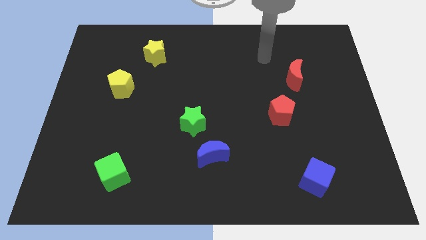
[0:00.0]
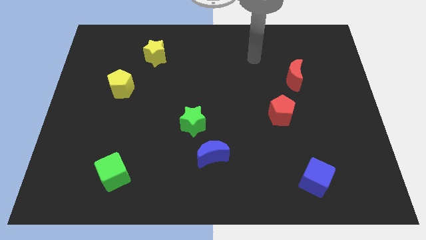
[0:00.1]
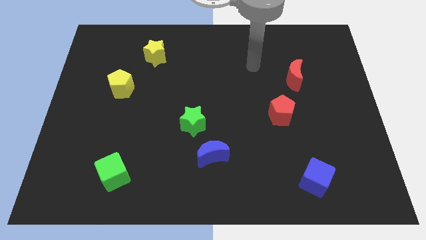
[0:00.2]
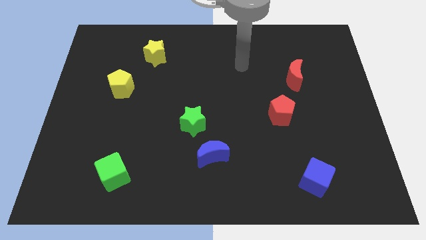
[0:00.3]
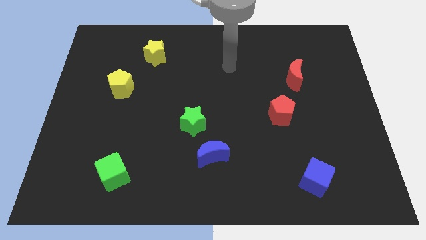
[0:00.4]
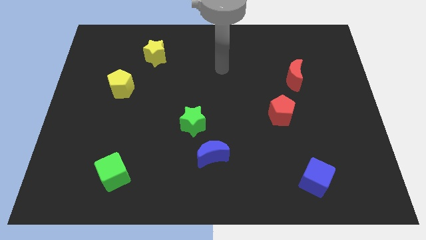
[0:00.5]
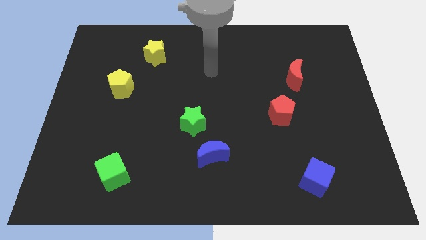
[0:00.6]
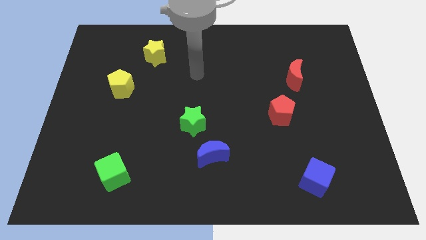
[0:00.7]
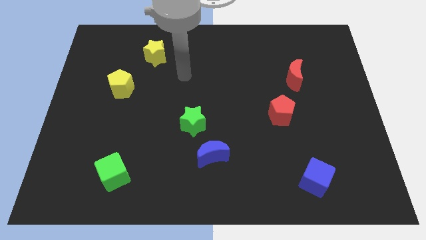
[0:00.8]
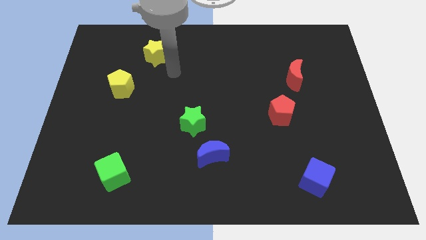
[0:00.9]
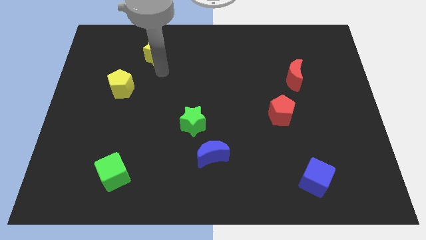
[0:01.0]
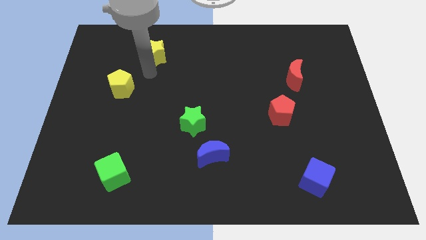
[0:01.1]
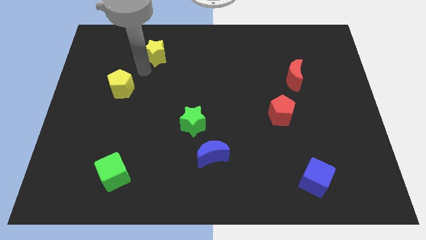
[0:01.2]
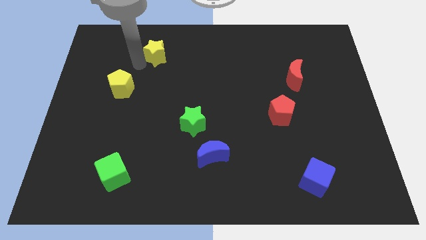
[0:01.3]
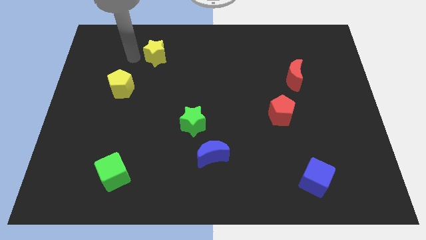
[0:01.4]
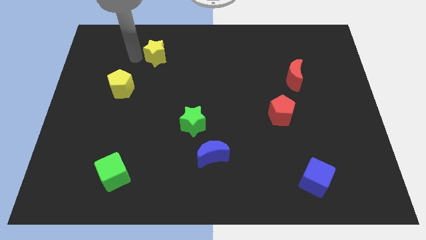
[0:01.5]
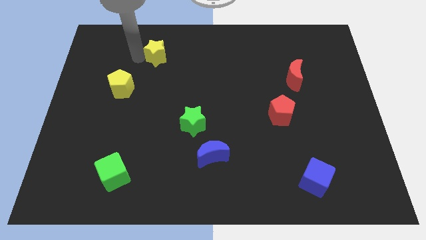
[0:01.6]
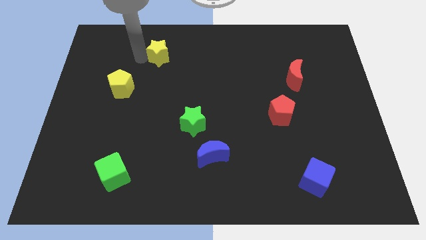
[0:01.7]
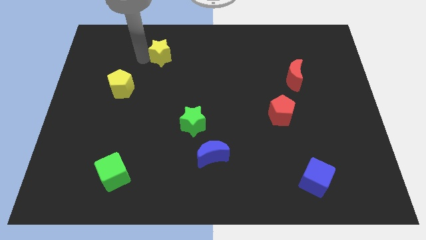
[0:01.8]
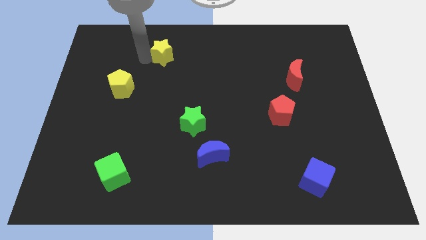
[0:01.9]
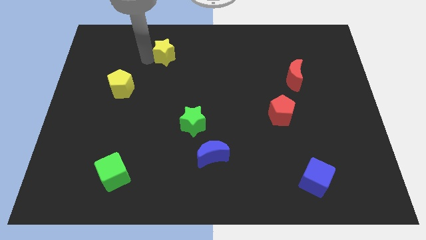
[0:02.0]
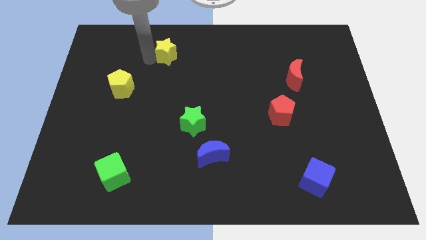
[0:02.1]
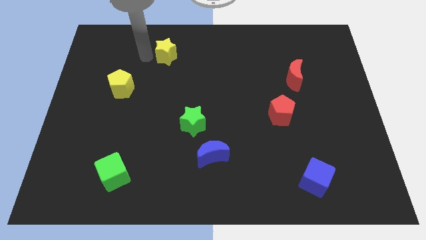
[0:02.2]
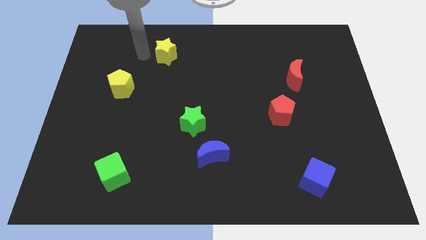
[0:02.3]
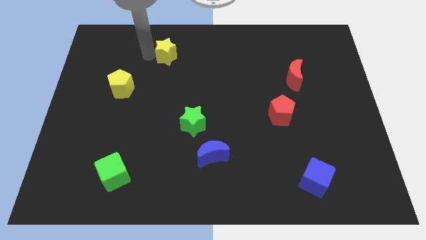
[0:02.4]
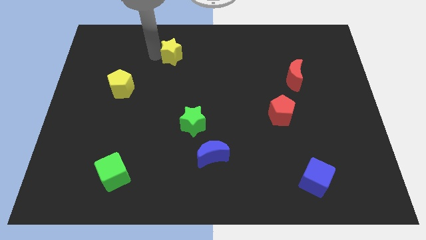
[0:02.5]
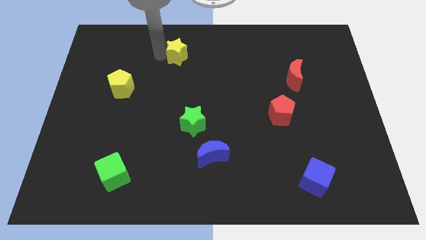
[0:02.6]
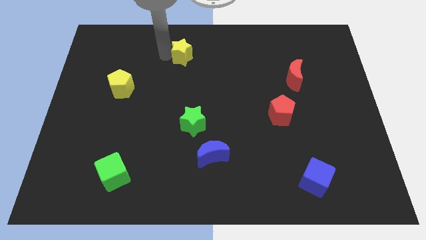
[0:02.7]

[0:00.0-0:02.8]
slightly push the yellow star right

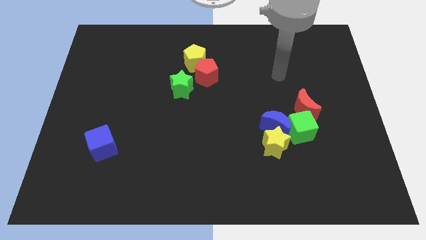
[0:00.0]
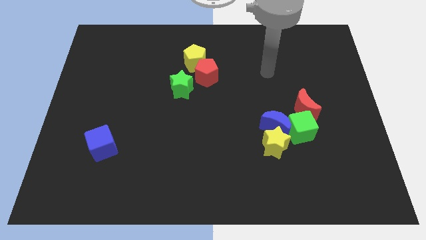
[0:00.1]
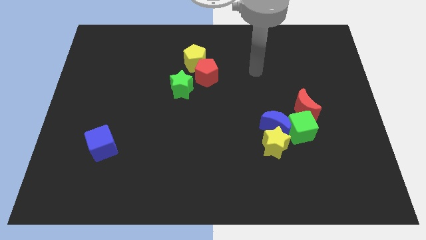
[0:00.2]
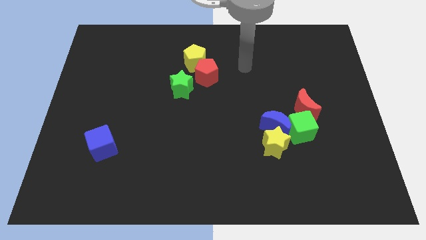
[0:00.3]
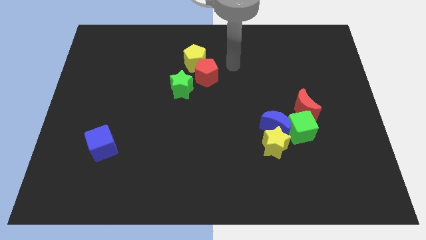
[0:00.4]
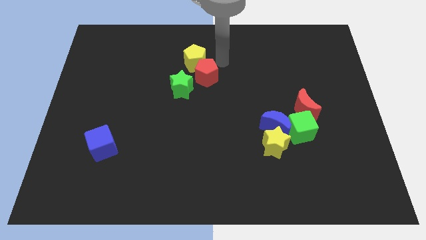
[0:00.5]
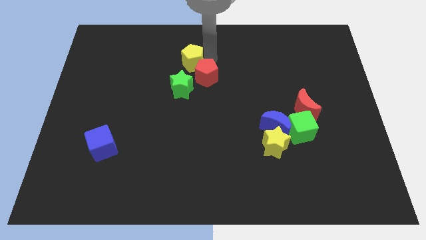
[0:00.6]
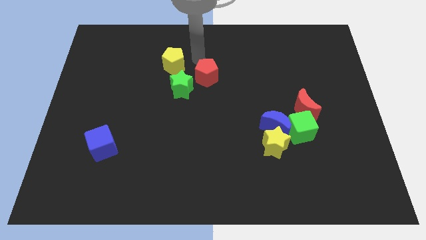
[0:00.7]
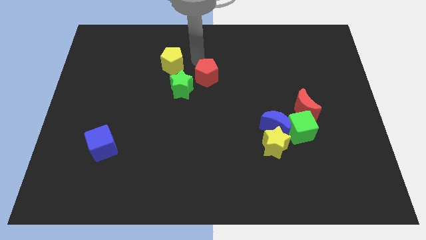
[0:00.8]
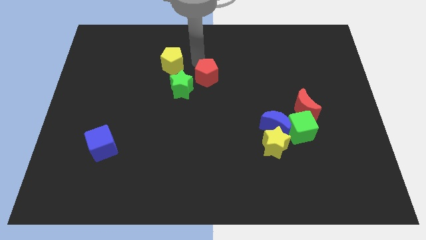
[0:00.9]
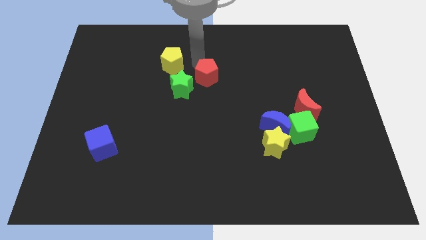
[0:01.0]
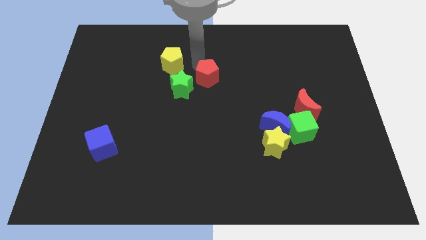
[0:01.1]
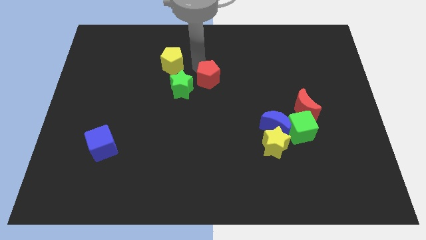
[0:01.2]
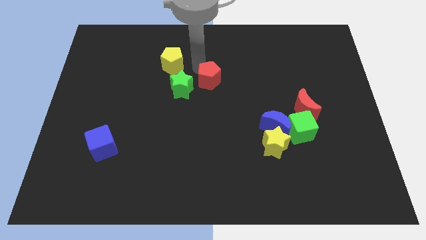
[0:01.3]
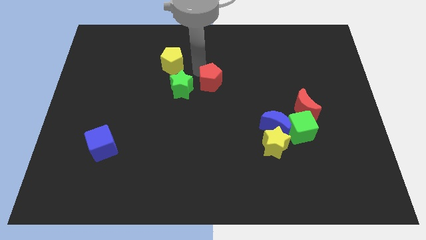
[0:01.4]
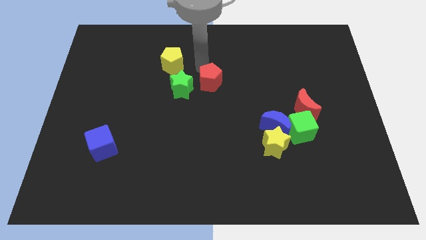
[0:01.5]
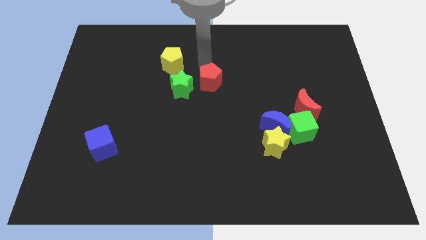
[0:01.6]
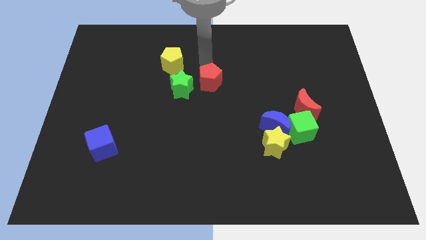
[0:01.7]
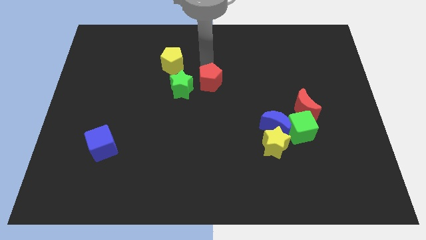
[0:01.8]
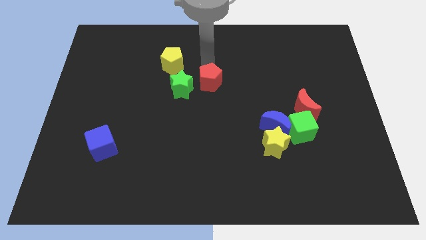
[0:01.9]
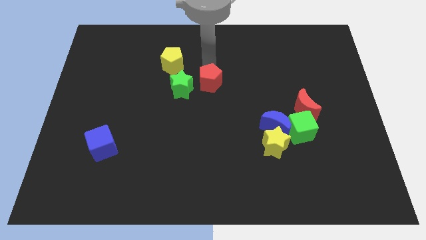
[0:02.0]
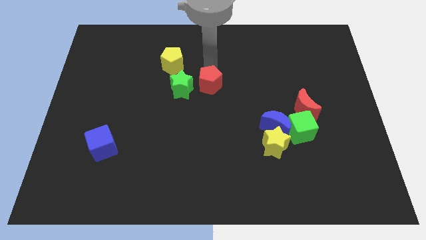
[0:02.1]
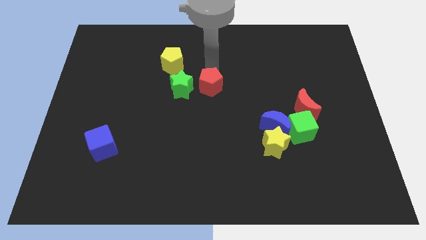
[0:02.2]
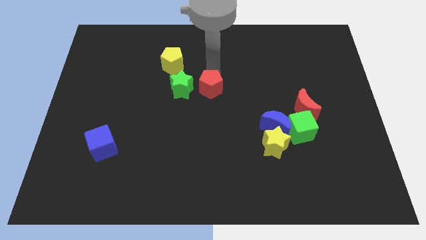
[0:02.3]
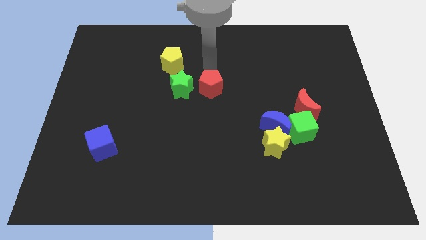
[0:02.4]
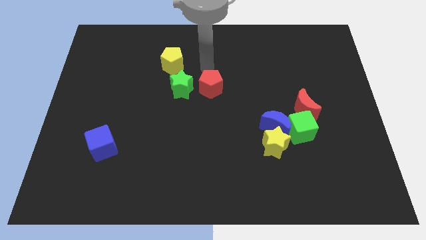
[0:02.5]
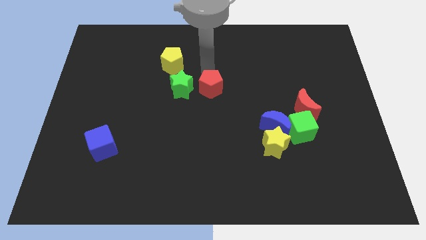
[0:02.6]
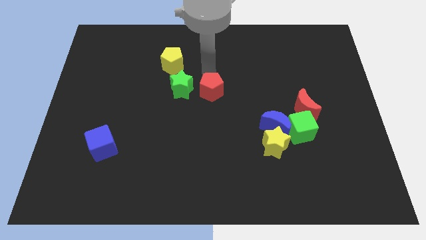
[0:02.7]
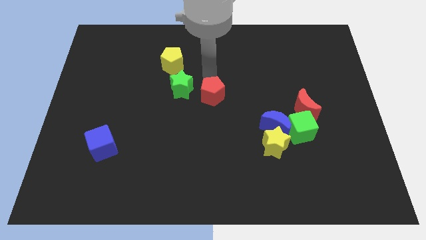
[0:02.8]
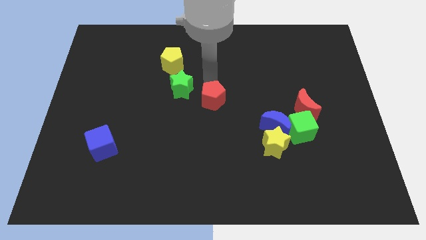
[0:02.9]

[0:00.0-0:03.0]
slightly move the red pentagon downwards

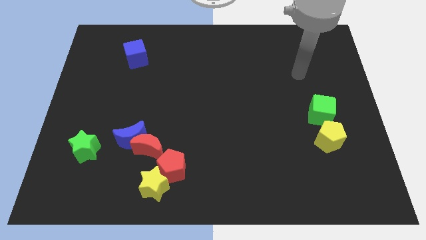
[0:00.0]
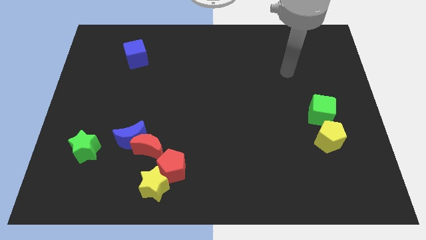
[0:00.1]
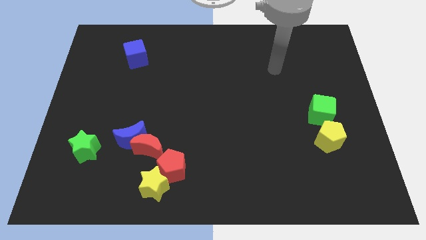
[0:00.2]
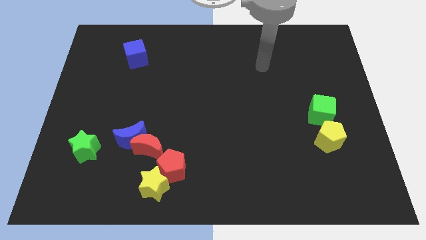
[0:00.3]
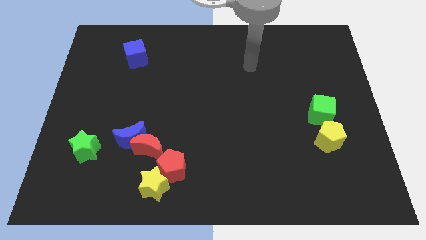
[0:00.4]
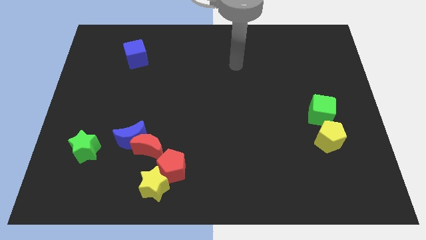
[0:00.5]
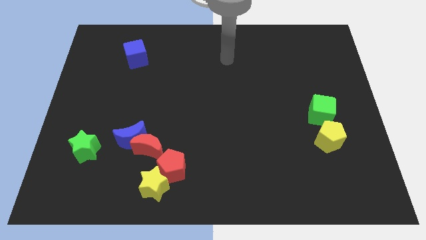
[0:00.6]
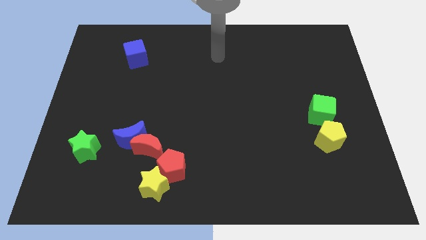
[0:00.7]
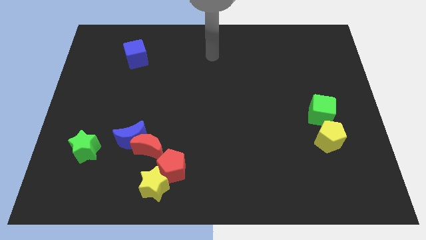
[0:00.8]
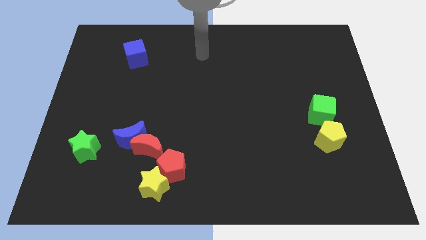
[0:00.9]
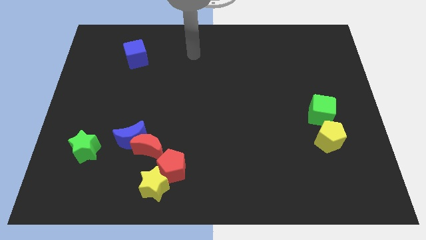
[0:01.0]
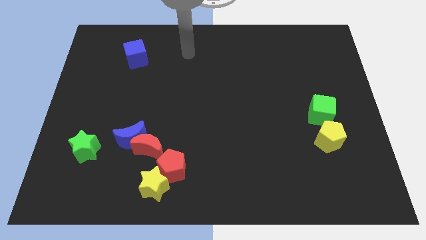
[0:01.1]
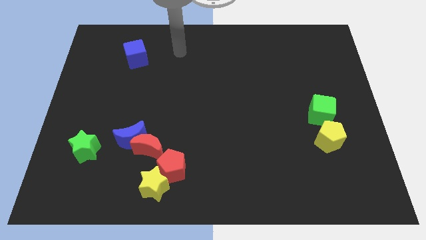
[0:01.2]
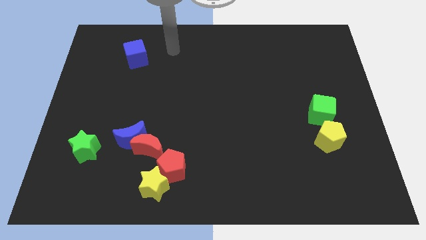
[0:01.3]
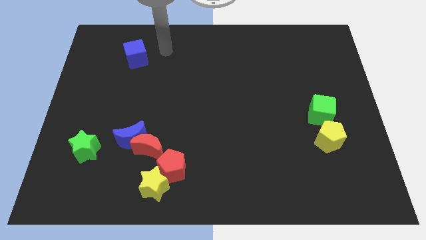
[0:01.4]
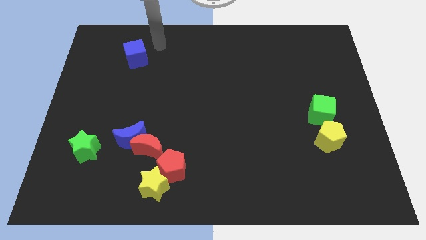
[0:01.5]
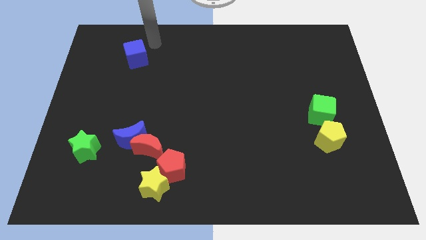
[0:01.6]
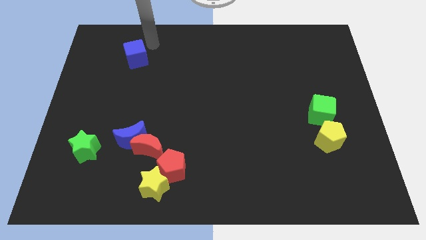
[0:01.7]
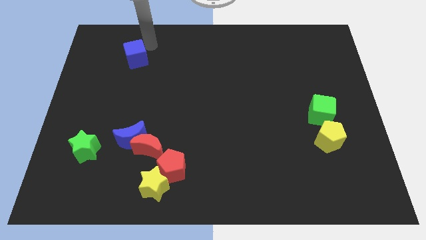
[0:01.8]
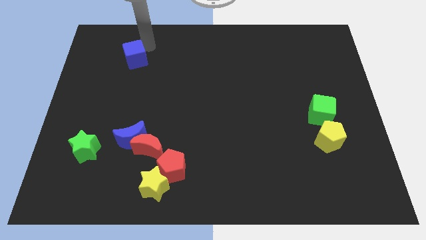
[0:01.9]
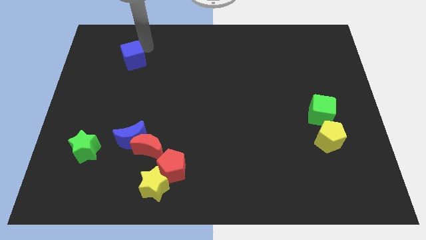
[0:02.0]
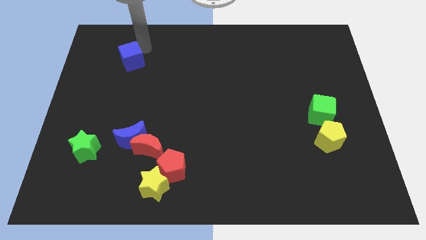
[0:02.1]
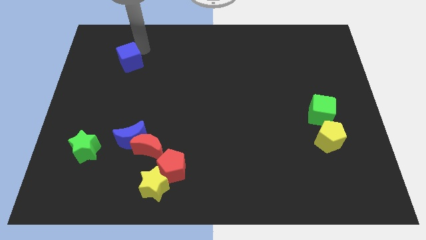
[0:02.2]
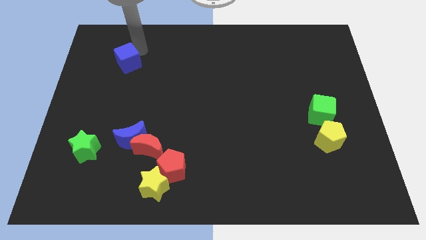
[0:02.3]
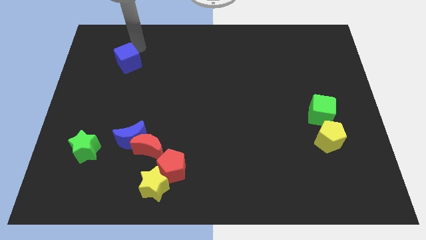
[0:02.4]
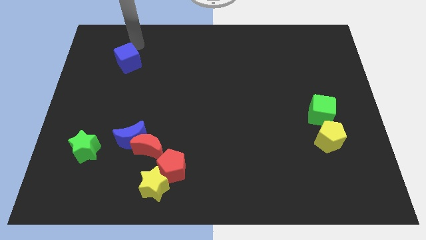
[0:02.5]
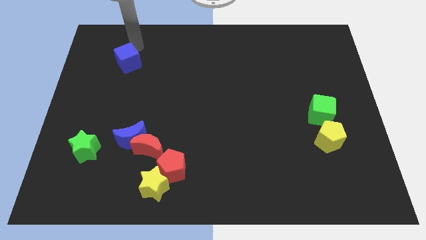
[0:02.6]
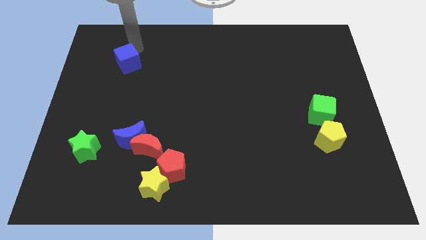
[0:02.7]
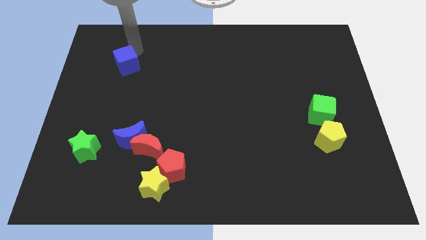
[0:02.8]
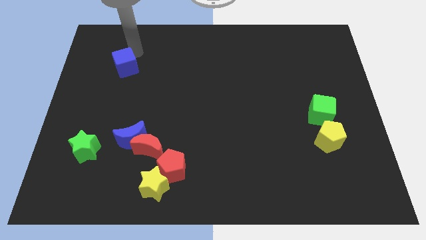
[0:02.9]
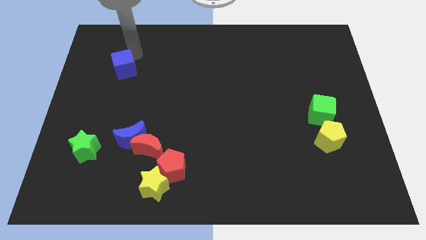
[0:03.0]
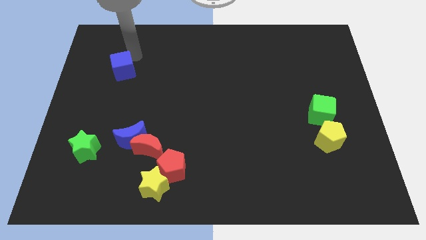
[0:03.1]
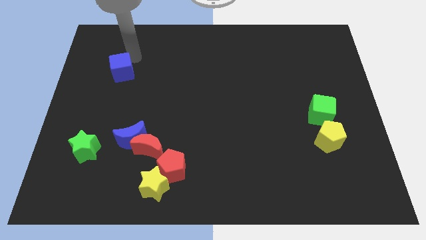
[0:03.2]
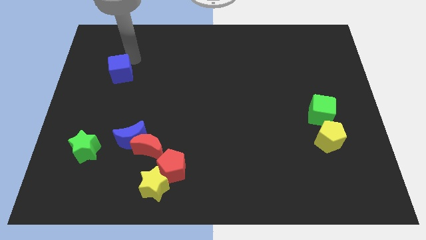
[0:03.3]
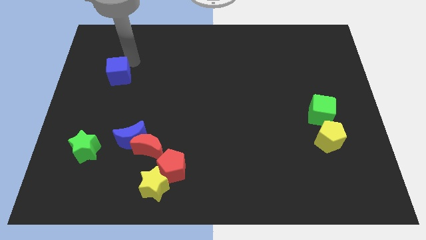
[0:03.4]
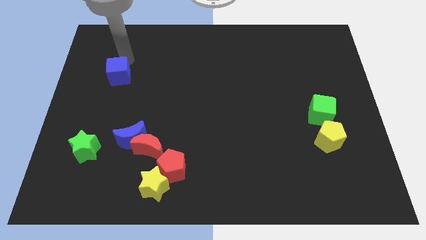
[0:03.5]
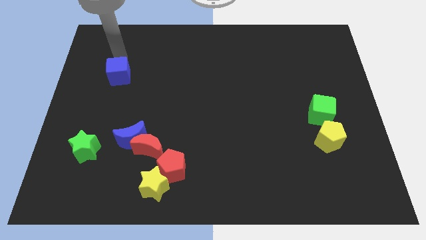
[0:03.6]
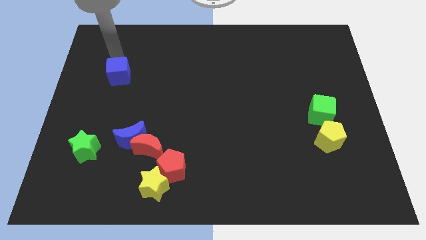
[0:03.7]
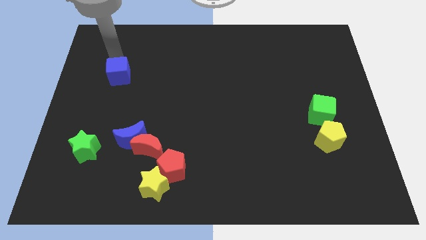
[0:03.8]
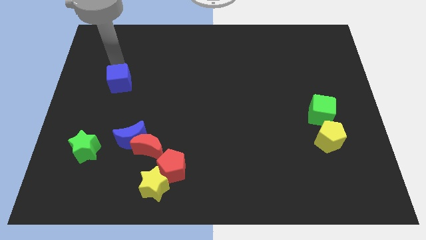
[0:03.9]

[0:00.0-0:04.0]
slide the blue cube a bit downwards
